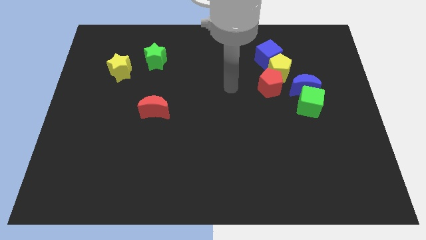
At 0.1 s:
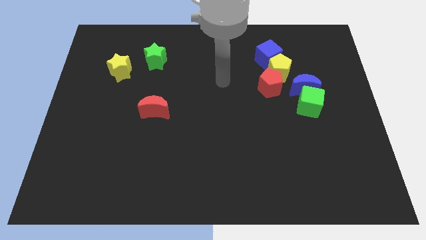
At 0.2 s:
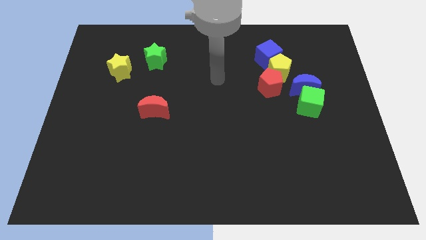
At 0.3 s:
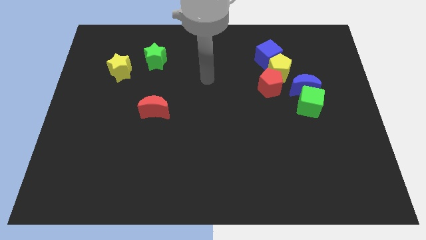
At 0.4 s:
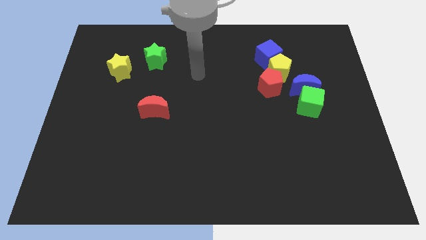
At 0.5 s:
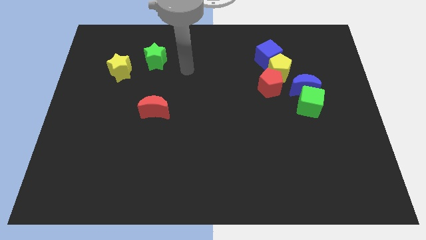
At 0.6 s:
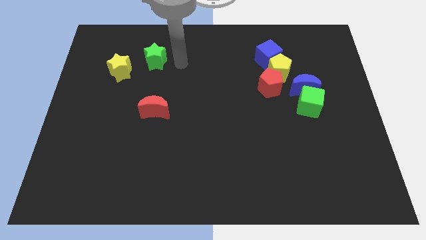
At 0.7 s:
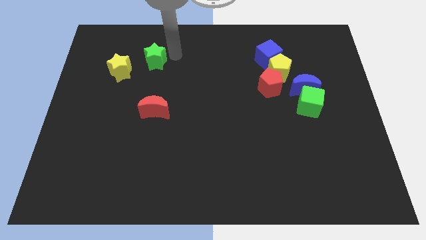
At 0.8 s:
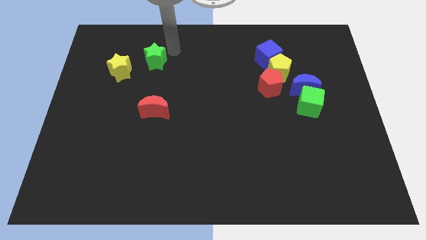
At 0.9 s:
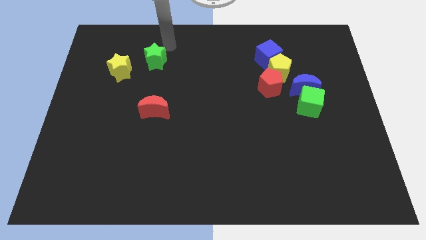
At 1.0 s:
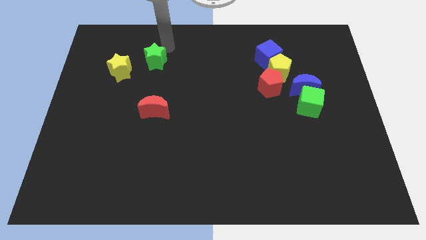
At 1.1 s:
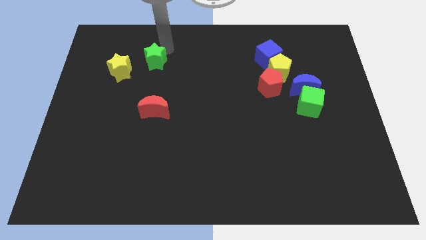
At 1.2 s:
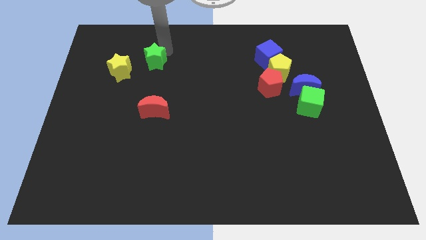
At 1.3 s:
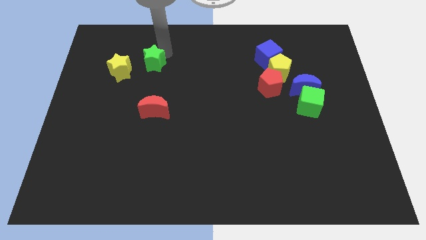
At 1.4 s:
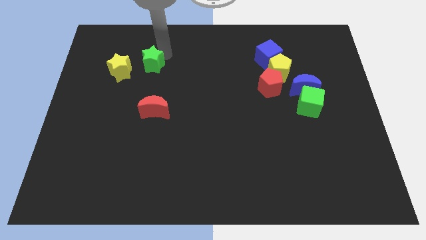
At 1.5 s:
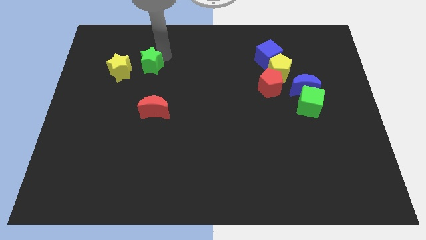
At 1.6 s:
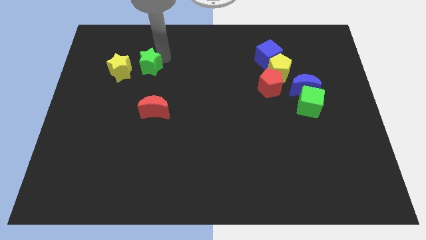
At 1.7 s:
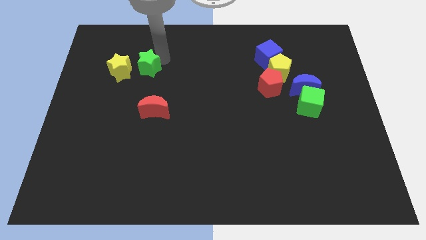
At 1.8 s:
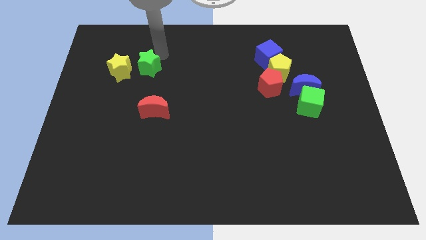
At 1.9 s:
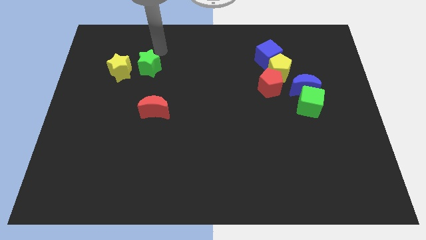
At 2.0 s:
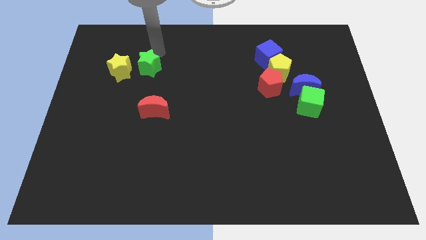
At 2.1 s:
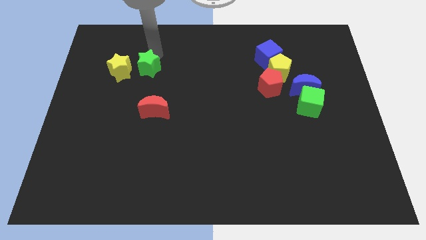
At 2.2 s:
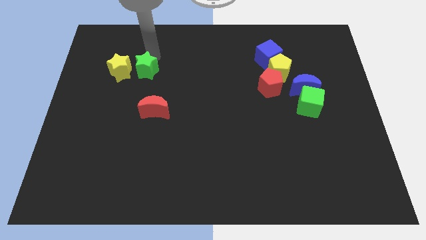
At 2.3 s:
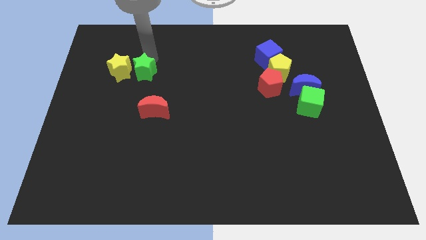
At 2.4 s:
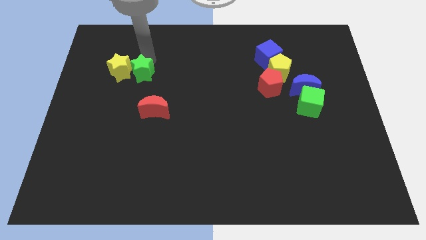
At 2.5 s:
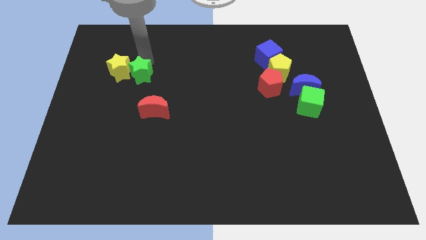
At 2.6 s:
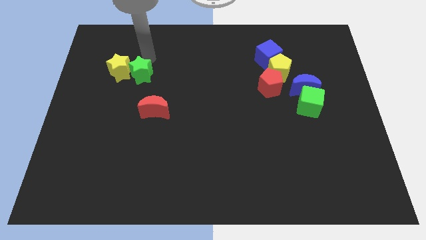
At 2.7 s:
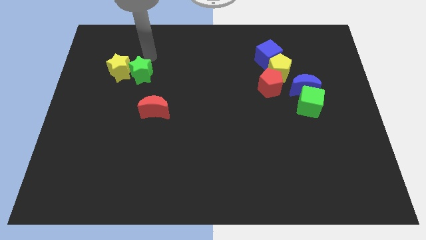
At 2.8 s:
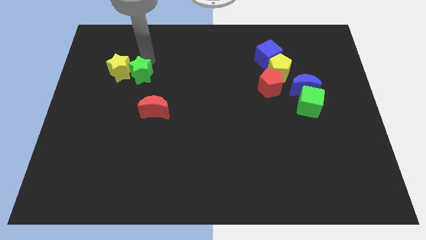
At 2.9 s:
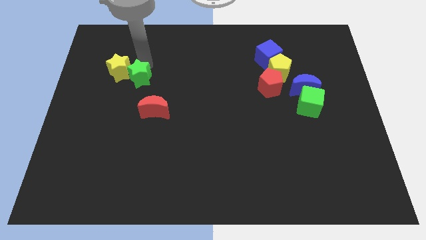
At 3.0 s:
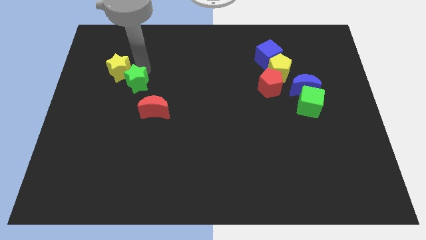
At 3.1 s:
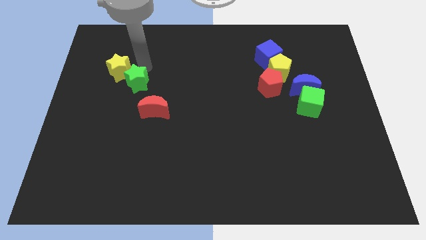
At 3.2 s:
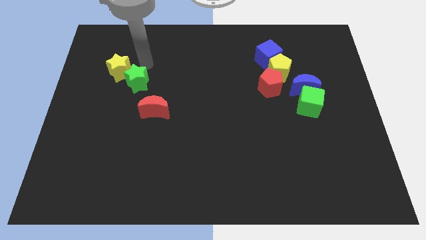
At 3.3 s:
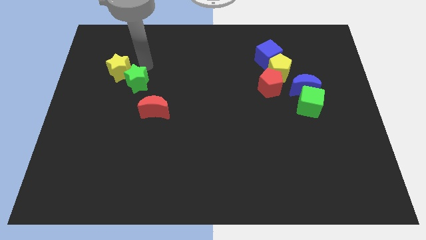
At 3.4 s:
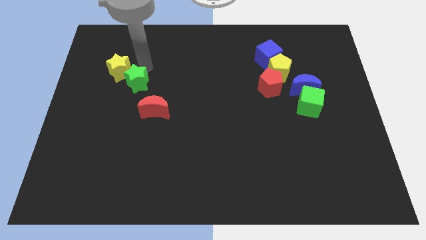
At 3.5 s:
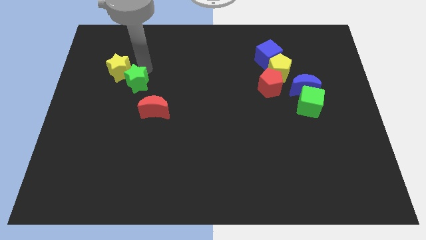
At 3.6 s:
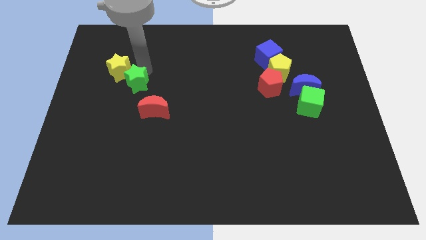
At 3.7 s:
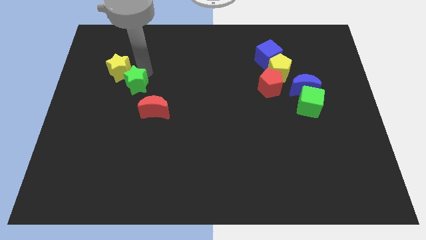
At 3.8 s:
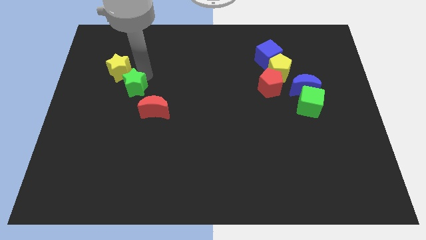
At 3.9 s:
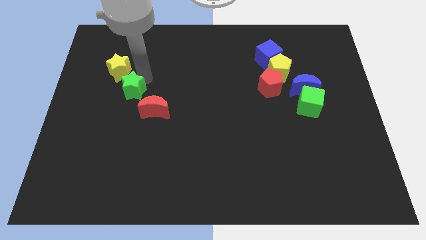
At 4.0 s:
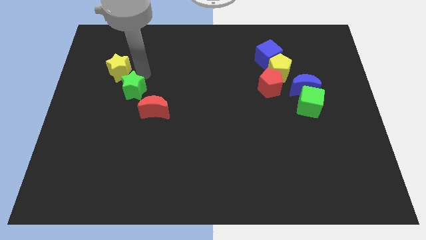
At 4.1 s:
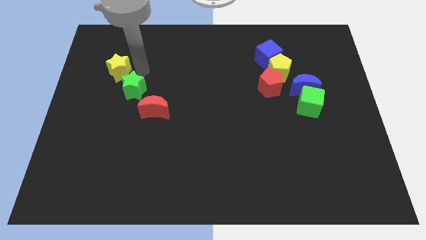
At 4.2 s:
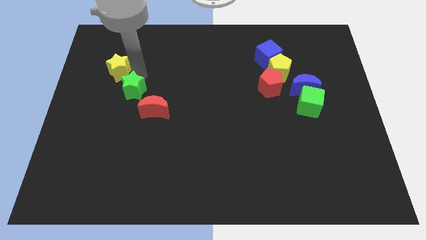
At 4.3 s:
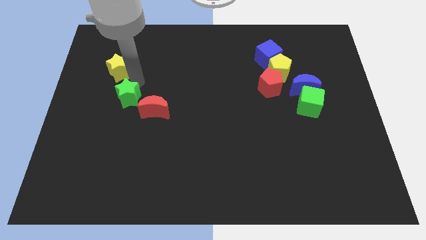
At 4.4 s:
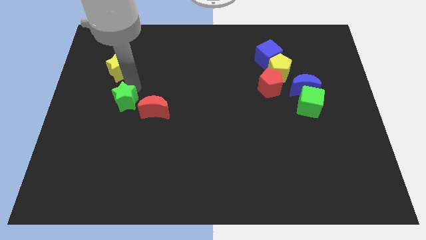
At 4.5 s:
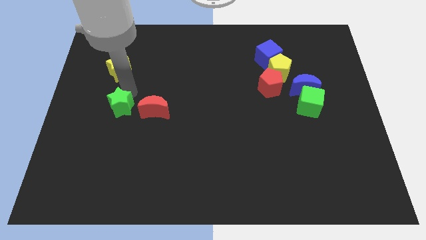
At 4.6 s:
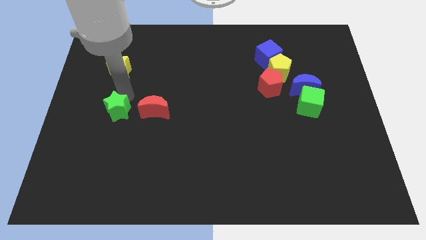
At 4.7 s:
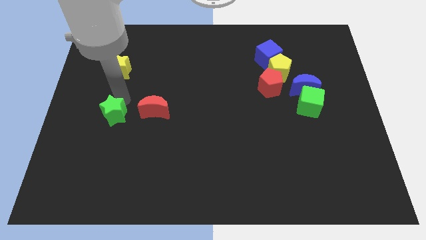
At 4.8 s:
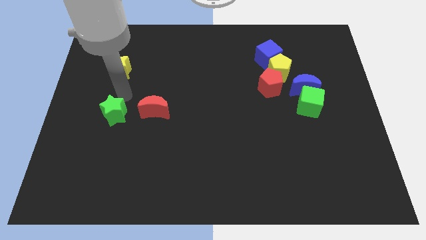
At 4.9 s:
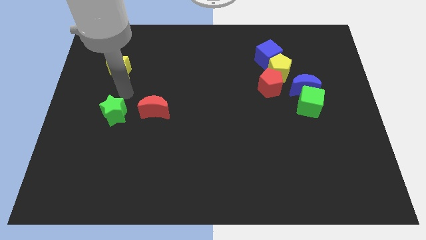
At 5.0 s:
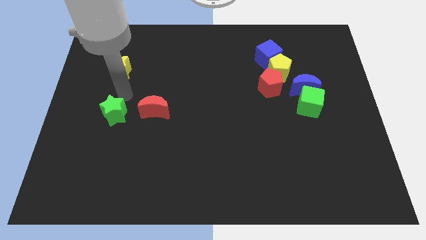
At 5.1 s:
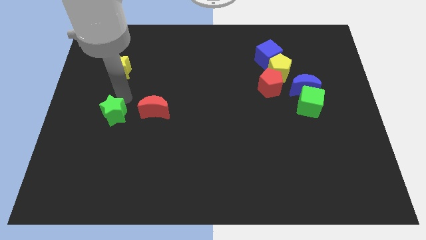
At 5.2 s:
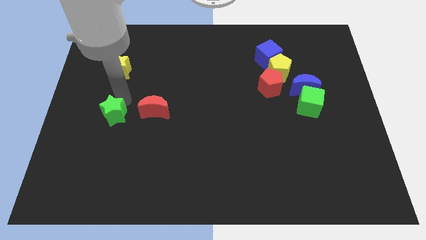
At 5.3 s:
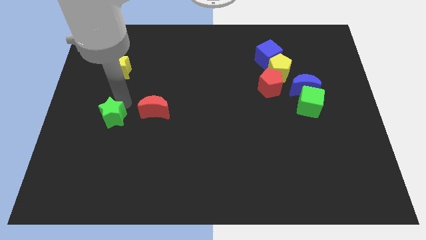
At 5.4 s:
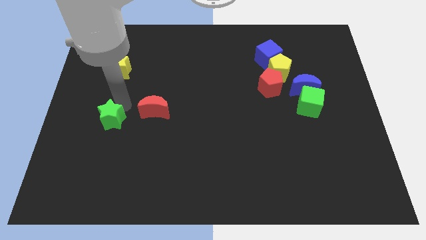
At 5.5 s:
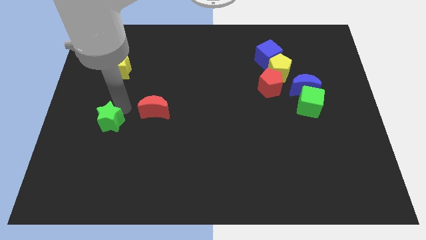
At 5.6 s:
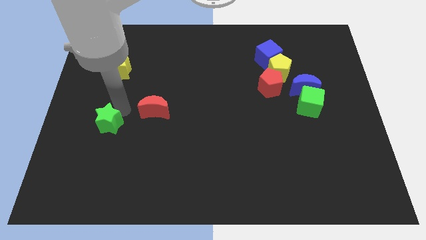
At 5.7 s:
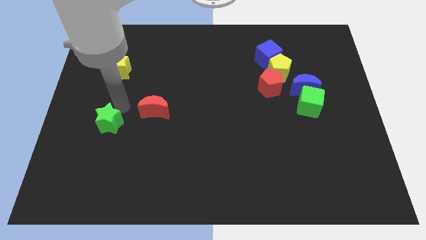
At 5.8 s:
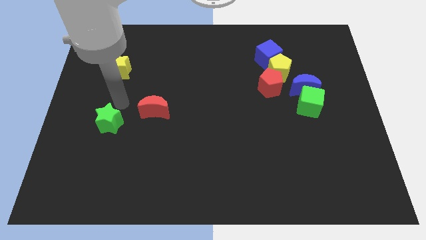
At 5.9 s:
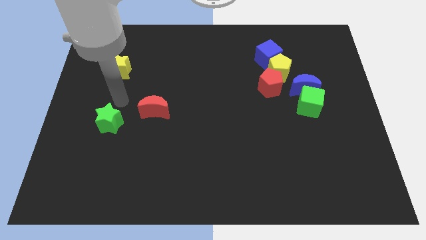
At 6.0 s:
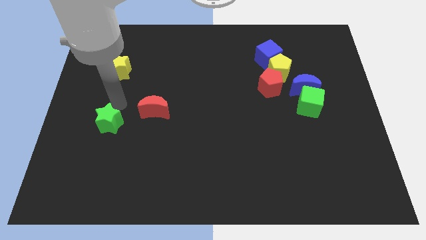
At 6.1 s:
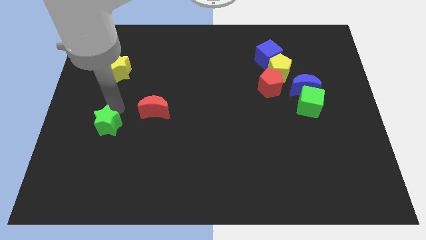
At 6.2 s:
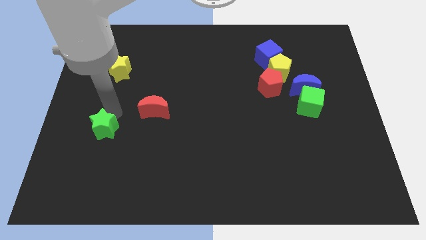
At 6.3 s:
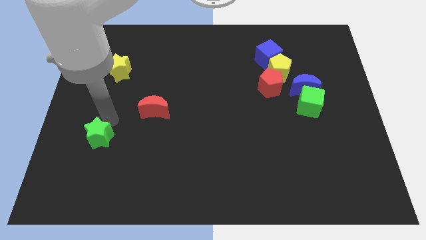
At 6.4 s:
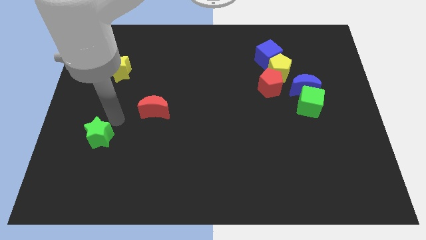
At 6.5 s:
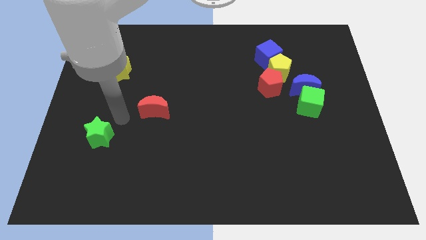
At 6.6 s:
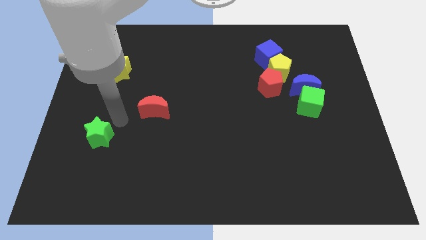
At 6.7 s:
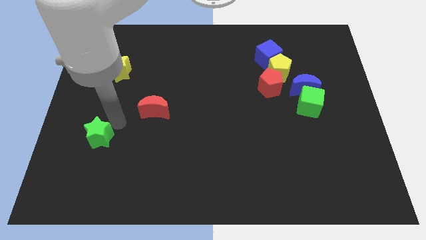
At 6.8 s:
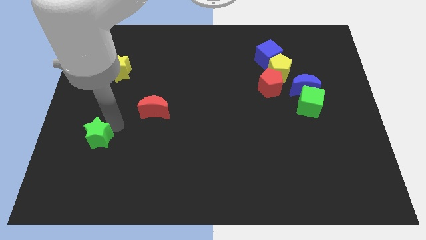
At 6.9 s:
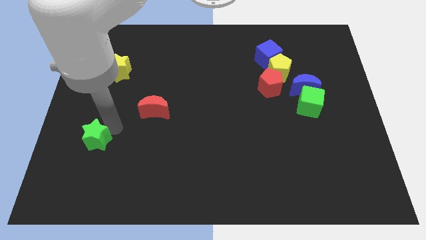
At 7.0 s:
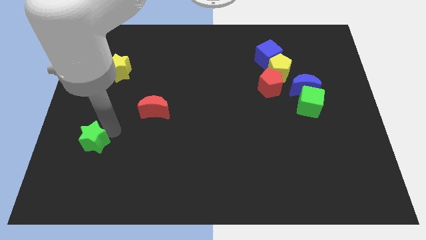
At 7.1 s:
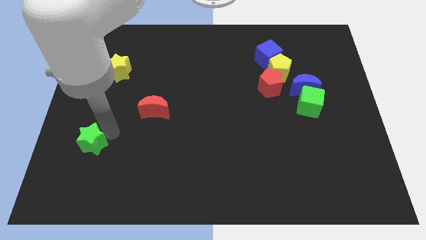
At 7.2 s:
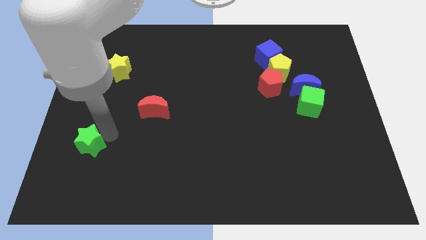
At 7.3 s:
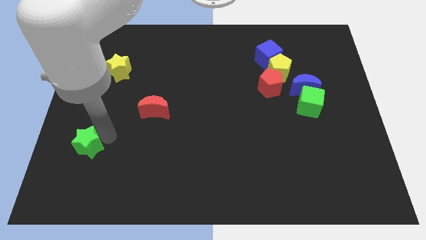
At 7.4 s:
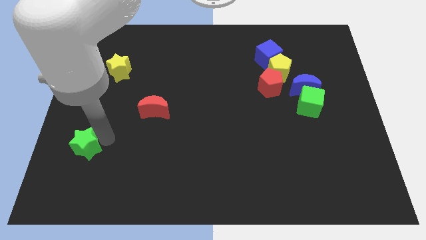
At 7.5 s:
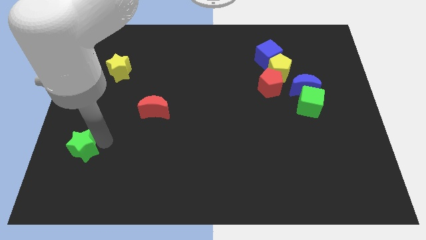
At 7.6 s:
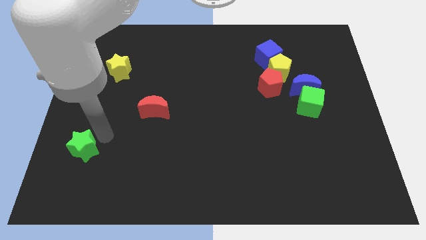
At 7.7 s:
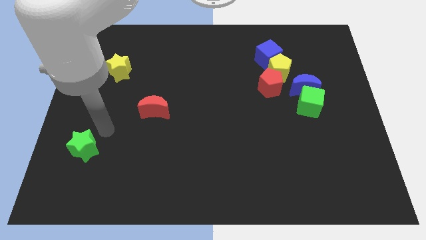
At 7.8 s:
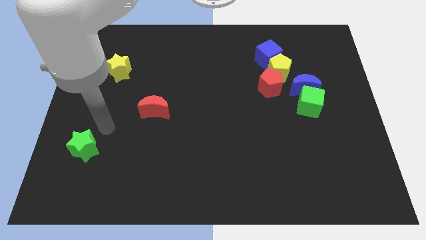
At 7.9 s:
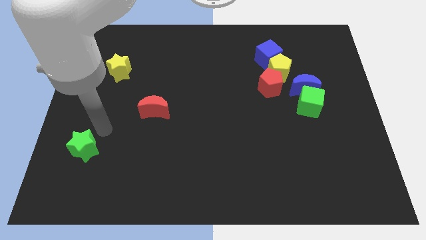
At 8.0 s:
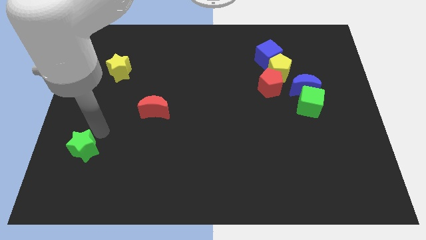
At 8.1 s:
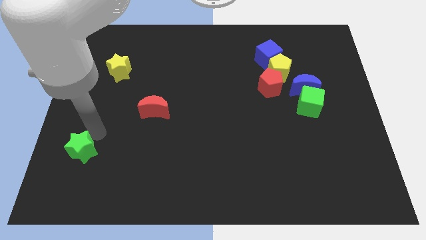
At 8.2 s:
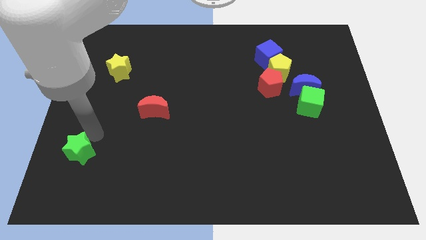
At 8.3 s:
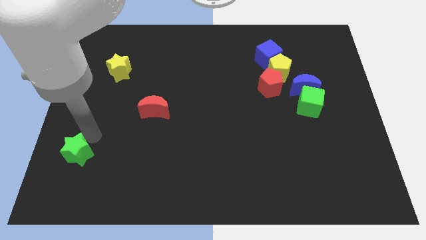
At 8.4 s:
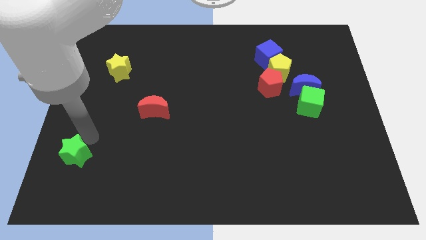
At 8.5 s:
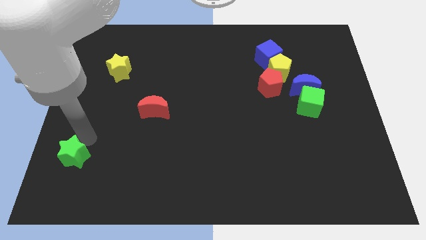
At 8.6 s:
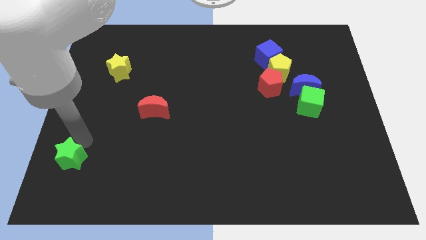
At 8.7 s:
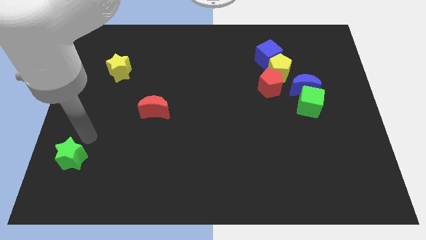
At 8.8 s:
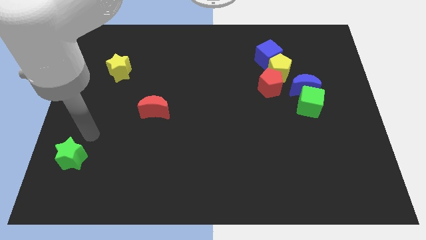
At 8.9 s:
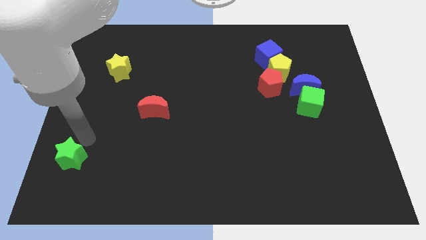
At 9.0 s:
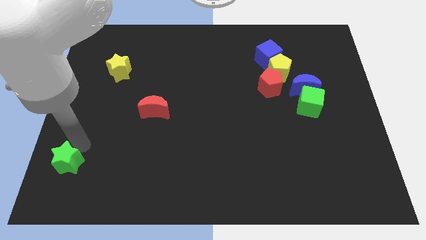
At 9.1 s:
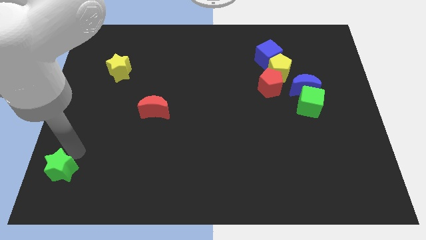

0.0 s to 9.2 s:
push the green star to the bottom left of the board
